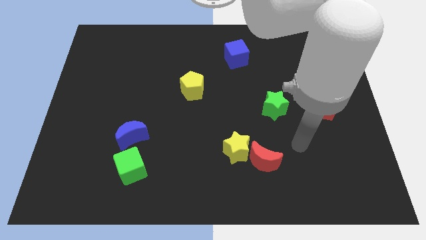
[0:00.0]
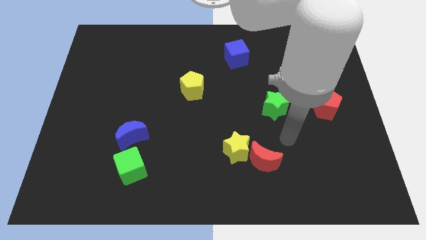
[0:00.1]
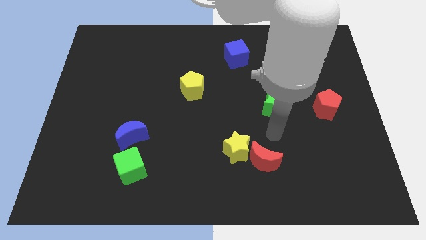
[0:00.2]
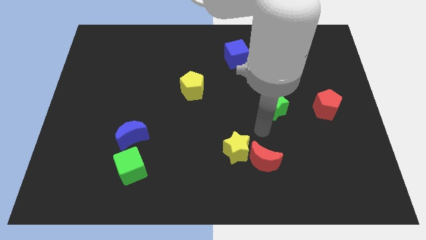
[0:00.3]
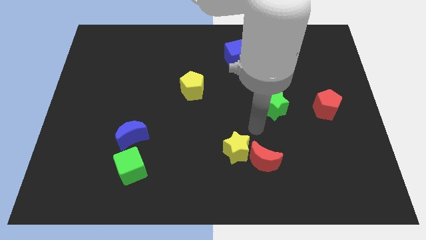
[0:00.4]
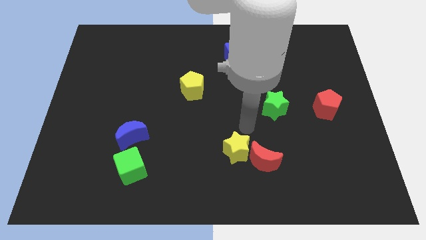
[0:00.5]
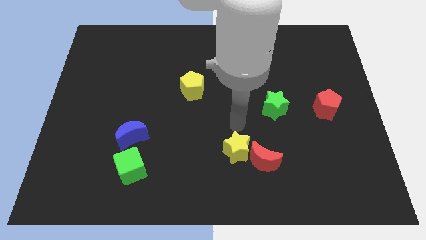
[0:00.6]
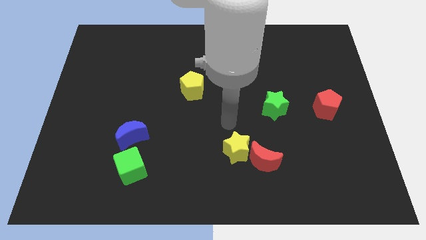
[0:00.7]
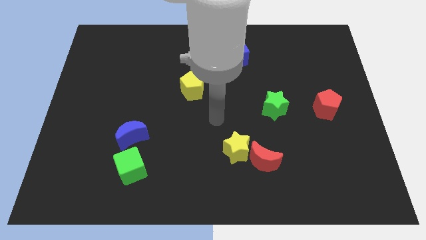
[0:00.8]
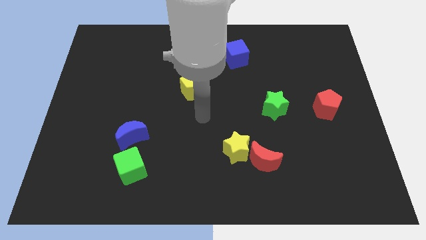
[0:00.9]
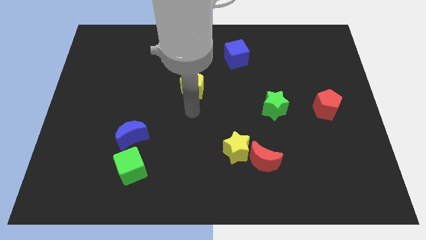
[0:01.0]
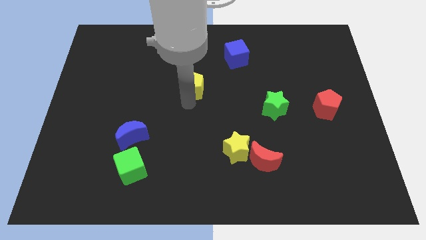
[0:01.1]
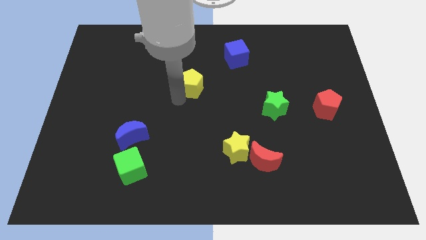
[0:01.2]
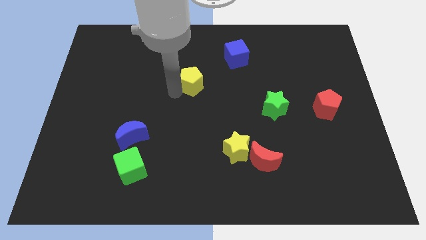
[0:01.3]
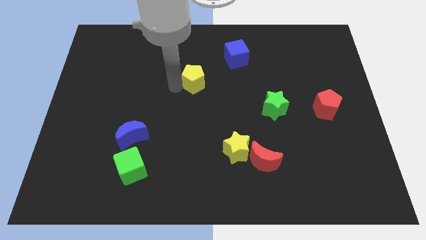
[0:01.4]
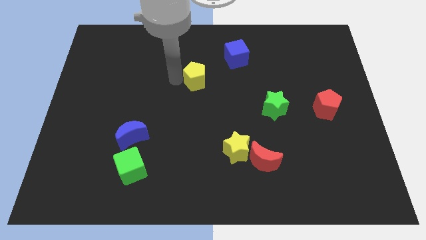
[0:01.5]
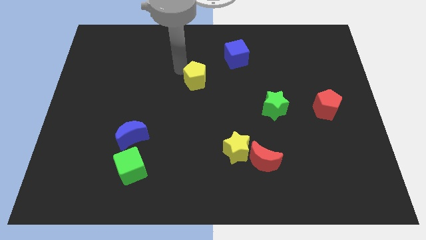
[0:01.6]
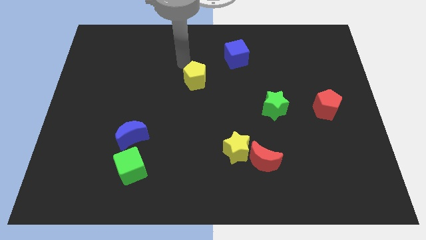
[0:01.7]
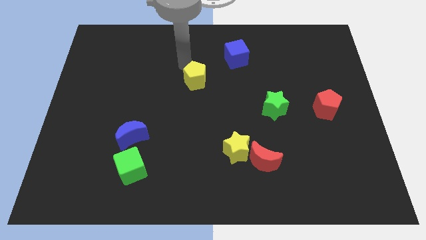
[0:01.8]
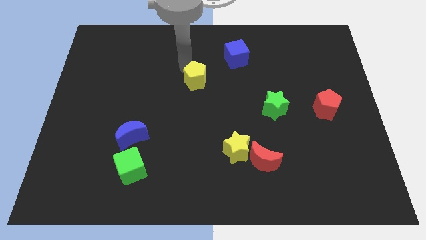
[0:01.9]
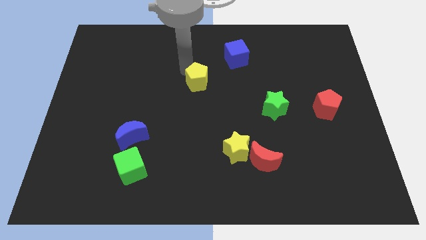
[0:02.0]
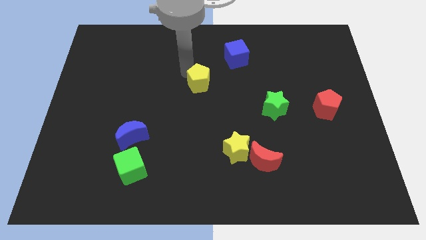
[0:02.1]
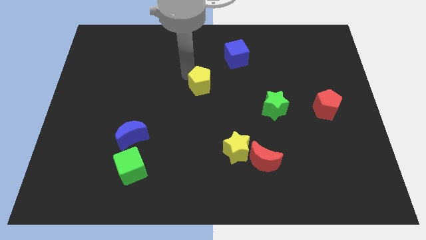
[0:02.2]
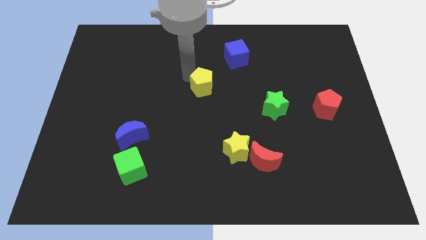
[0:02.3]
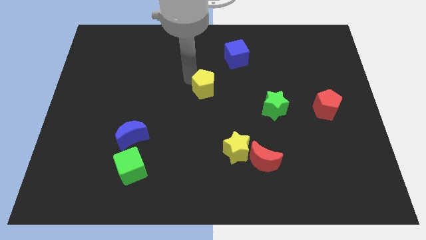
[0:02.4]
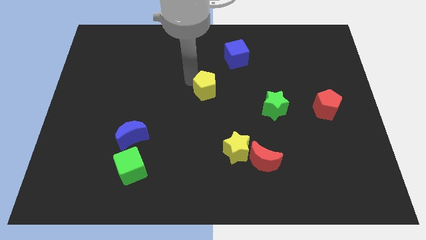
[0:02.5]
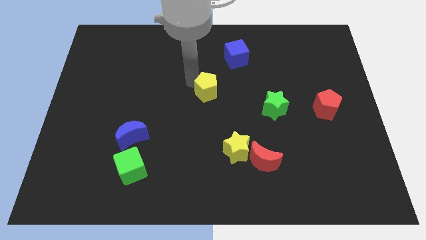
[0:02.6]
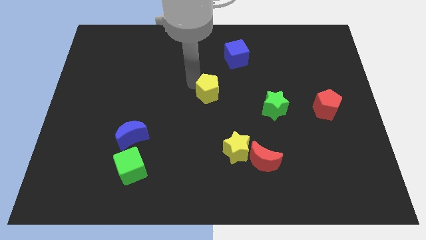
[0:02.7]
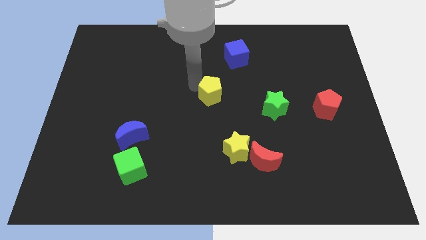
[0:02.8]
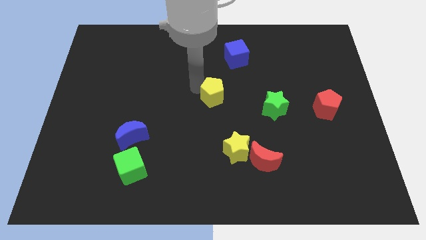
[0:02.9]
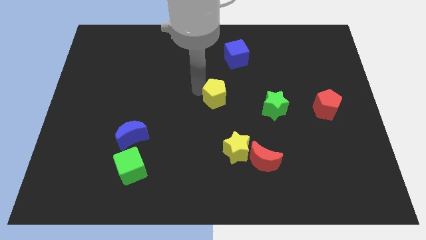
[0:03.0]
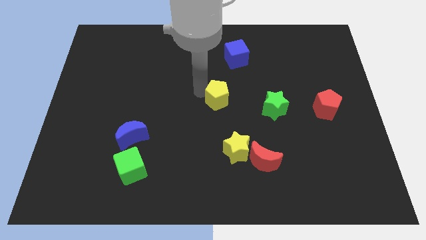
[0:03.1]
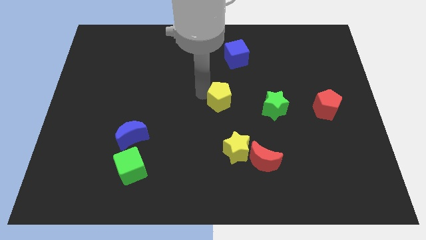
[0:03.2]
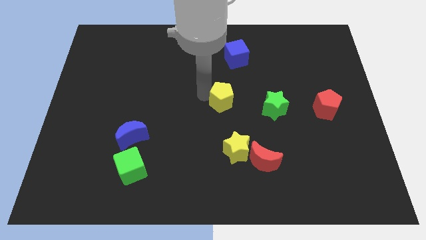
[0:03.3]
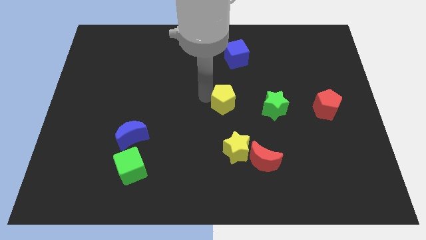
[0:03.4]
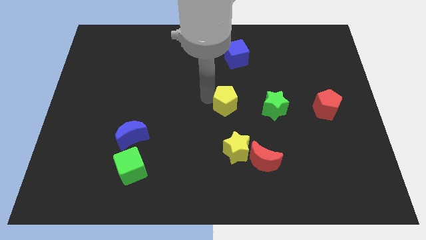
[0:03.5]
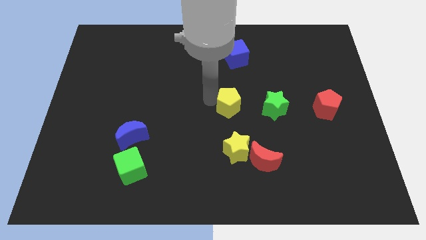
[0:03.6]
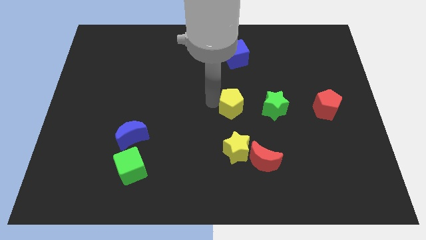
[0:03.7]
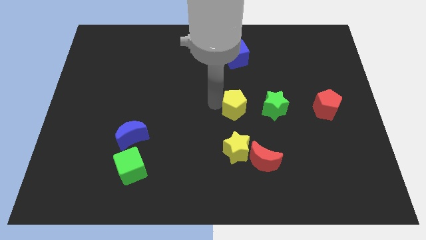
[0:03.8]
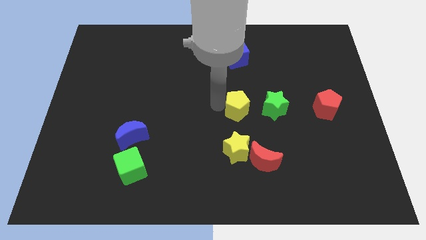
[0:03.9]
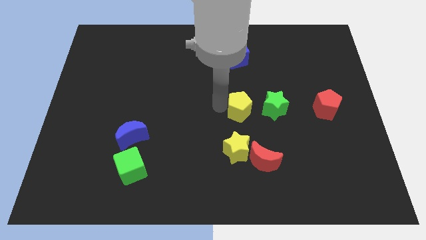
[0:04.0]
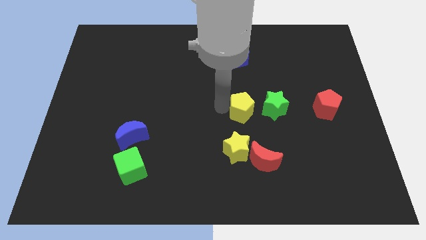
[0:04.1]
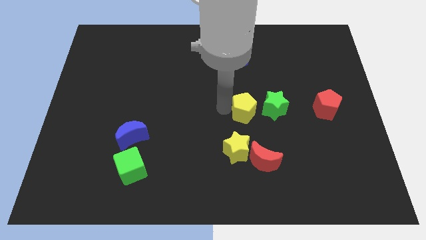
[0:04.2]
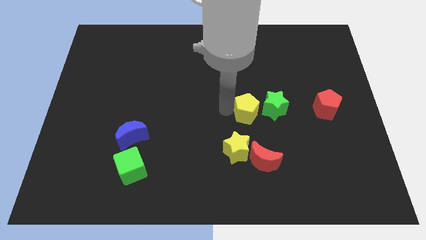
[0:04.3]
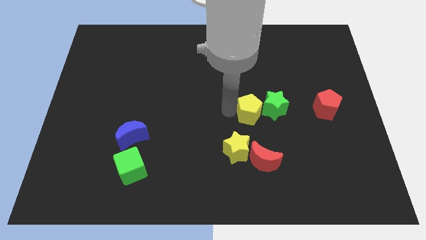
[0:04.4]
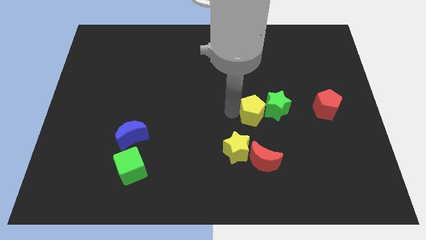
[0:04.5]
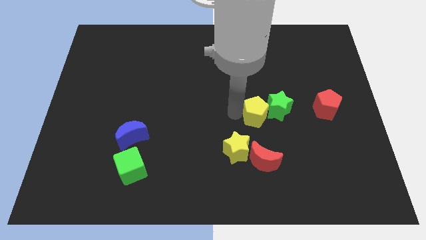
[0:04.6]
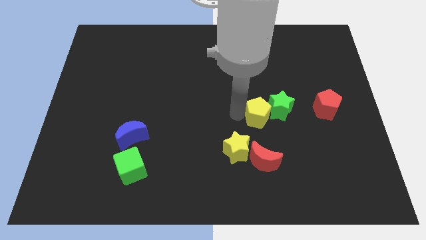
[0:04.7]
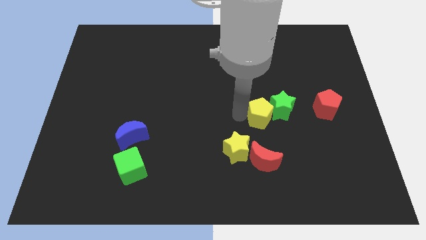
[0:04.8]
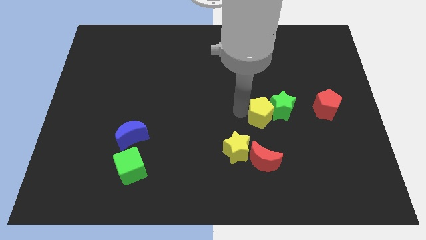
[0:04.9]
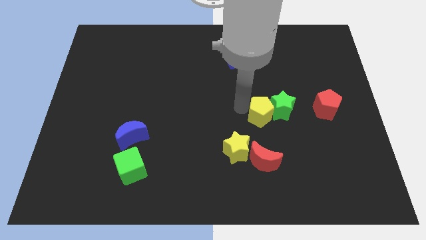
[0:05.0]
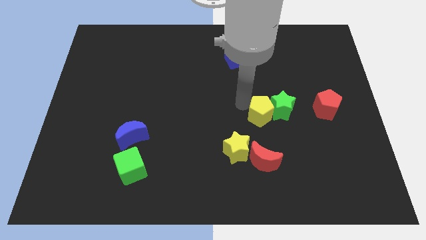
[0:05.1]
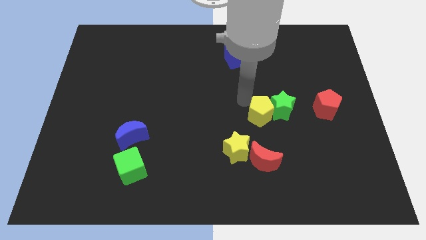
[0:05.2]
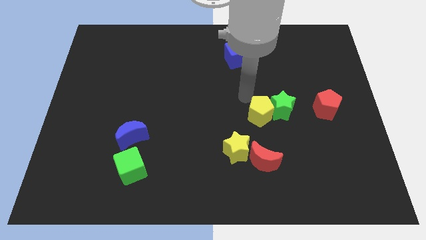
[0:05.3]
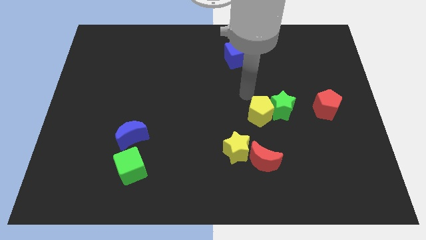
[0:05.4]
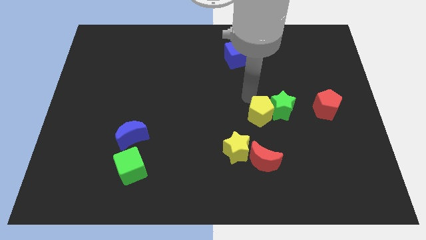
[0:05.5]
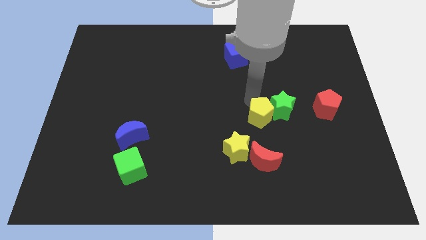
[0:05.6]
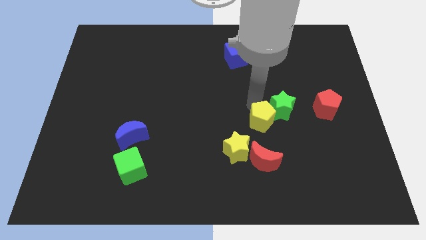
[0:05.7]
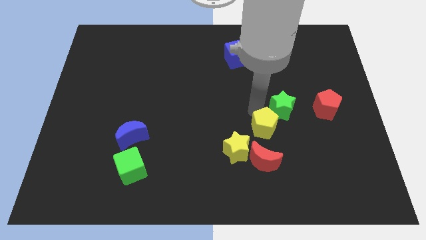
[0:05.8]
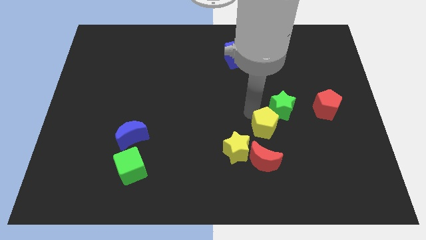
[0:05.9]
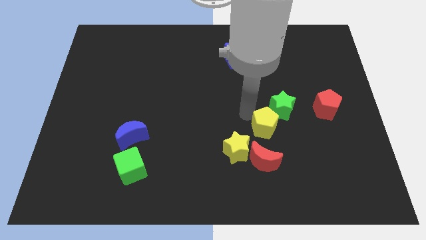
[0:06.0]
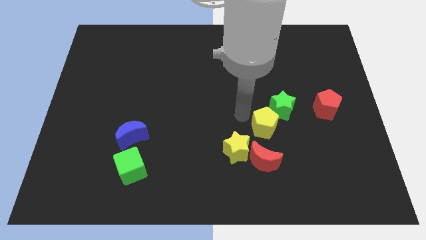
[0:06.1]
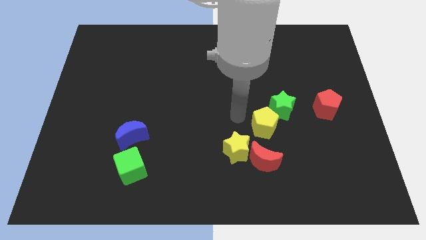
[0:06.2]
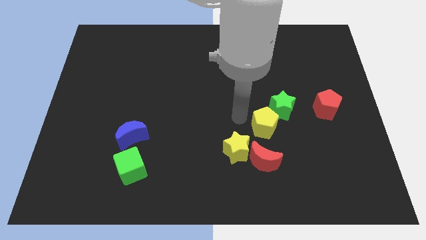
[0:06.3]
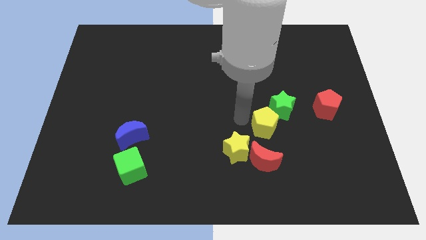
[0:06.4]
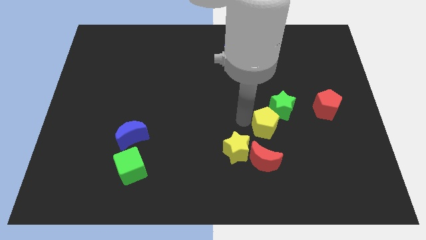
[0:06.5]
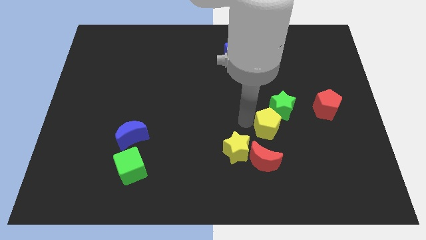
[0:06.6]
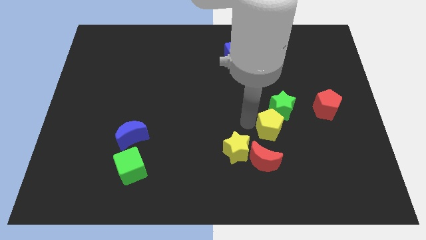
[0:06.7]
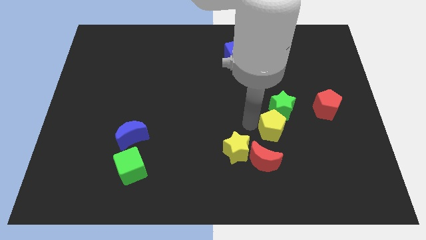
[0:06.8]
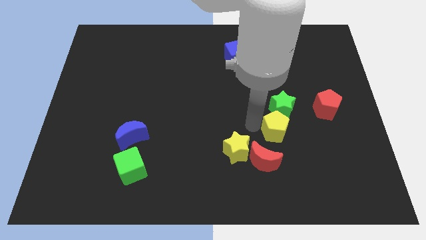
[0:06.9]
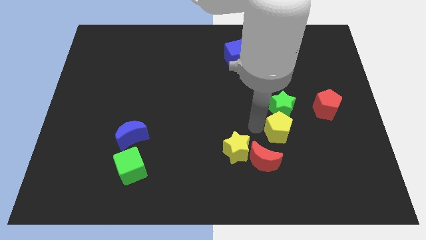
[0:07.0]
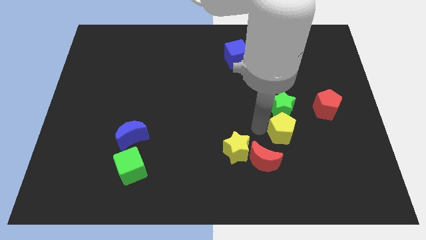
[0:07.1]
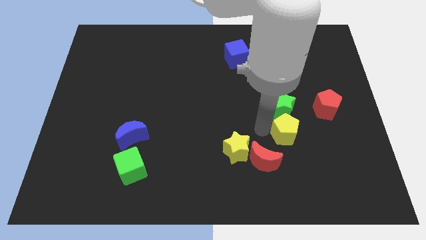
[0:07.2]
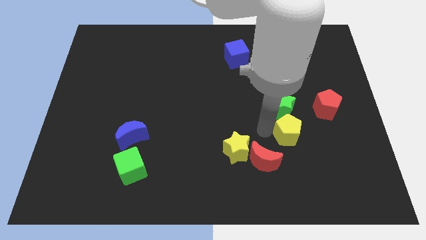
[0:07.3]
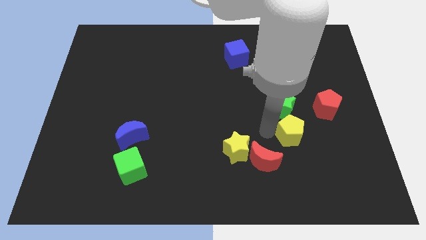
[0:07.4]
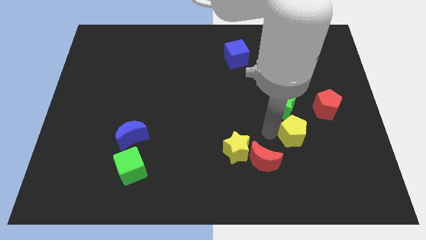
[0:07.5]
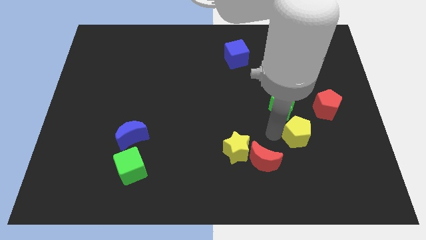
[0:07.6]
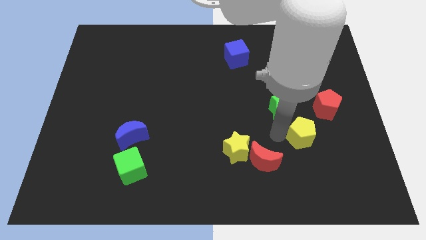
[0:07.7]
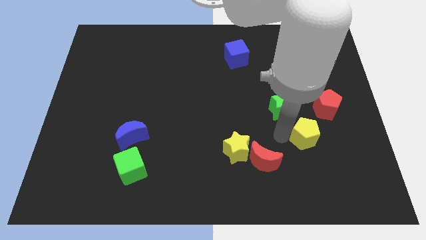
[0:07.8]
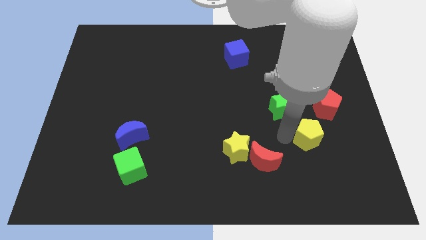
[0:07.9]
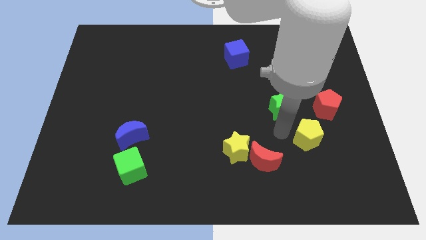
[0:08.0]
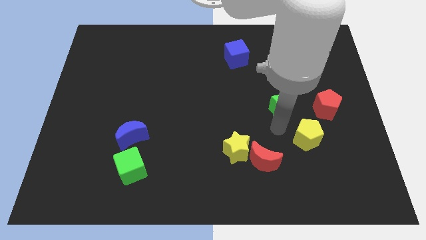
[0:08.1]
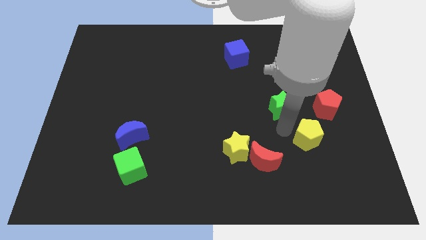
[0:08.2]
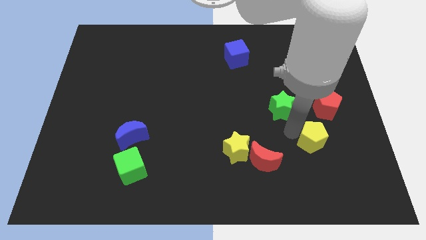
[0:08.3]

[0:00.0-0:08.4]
slide the yellow pentagon to the bottom side of the red pentagon
